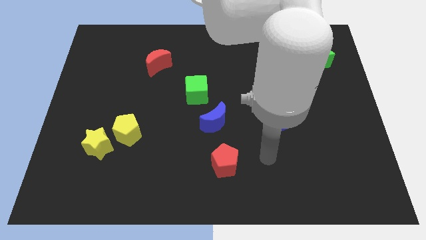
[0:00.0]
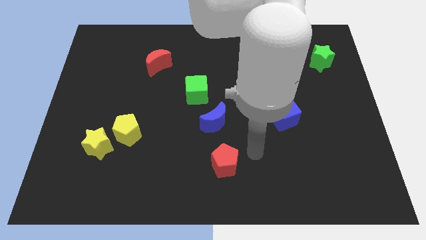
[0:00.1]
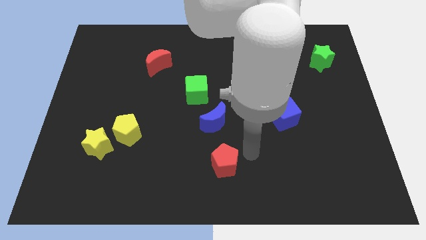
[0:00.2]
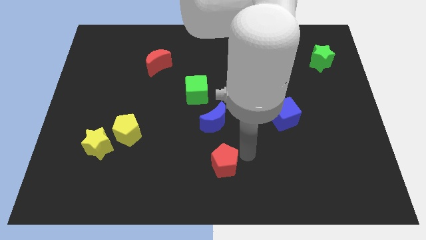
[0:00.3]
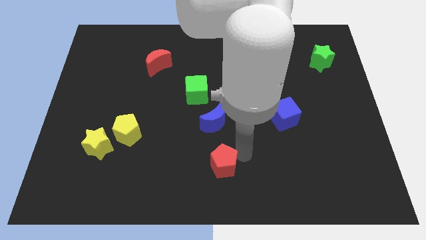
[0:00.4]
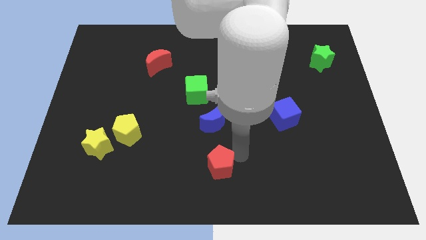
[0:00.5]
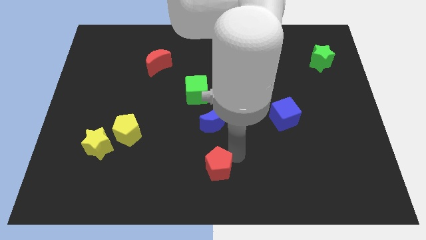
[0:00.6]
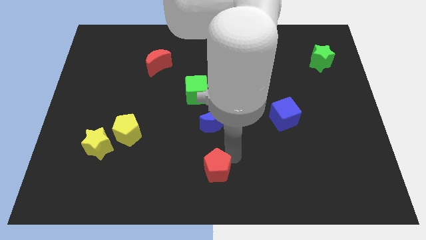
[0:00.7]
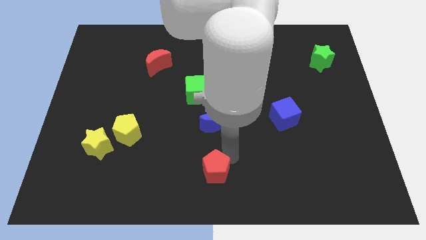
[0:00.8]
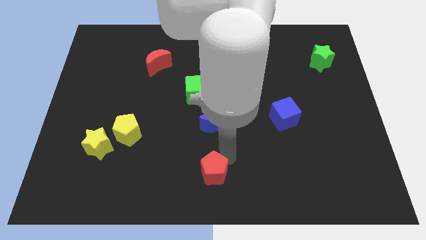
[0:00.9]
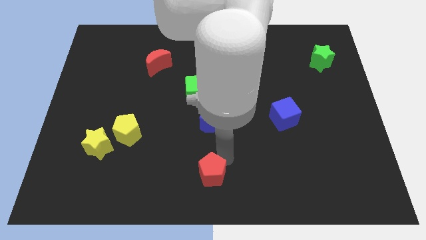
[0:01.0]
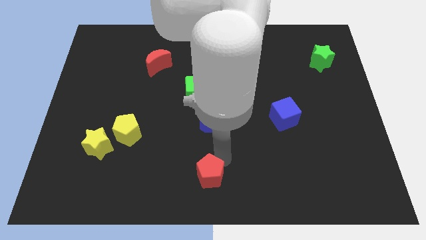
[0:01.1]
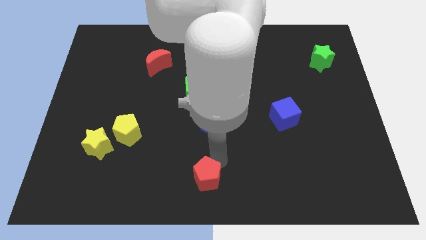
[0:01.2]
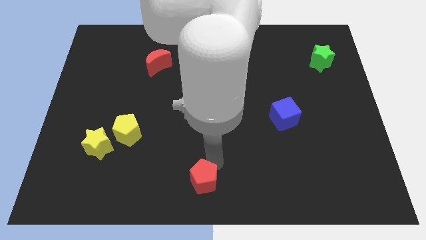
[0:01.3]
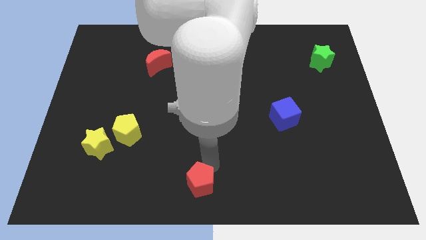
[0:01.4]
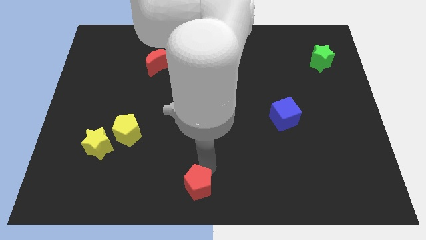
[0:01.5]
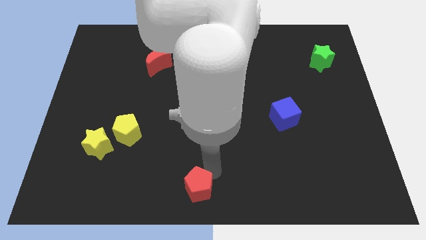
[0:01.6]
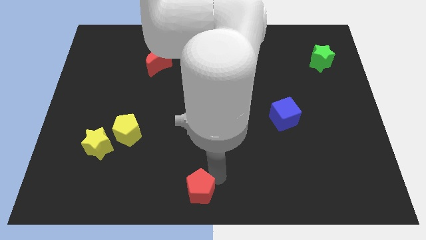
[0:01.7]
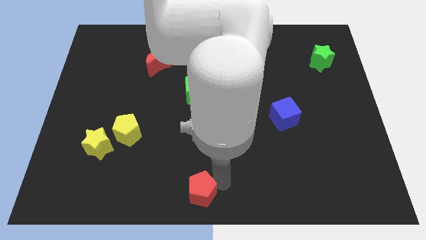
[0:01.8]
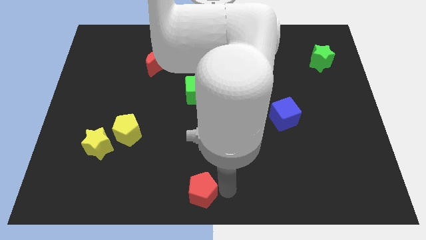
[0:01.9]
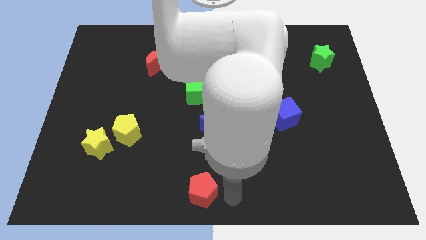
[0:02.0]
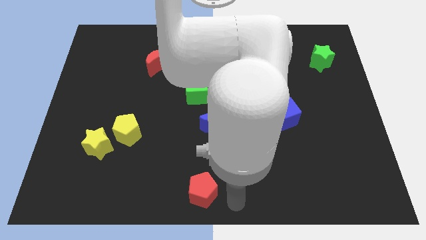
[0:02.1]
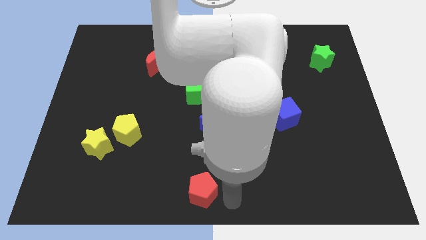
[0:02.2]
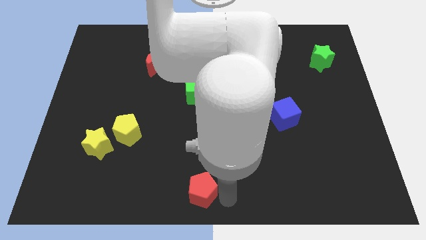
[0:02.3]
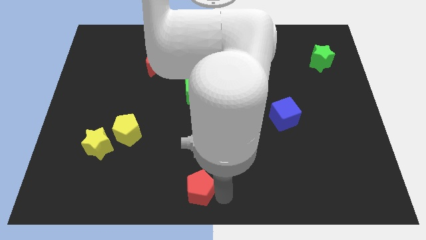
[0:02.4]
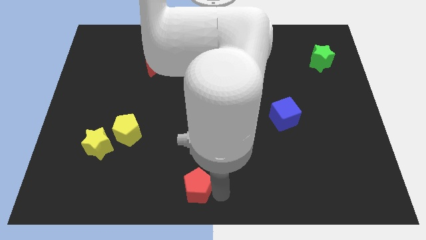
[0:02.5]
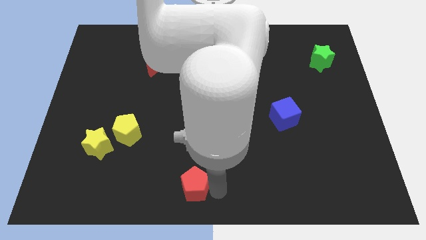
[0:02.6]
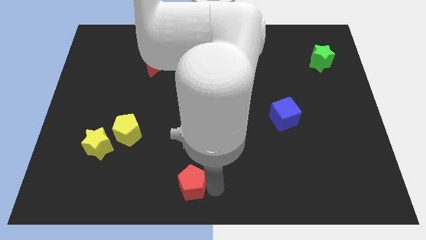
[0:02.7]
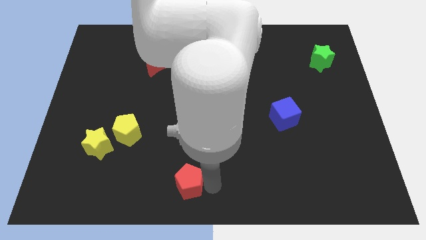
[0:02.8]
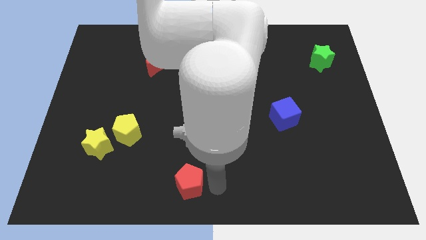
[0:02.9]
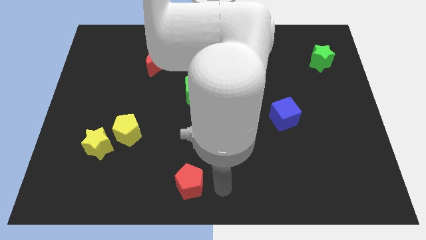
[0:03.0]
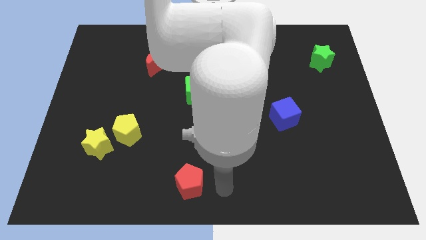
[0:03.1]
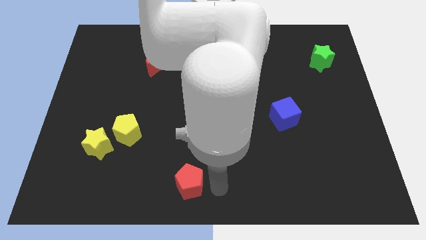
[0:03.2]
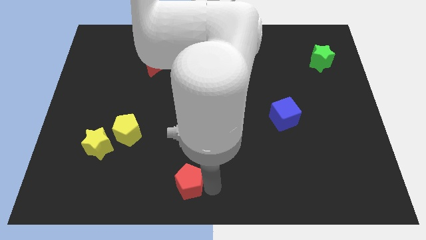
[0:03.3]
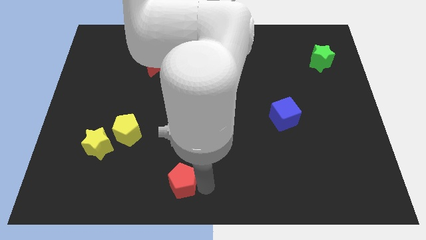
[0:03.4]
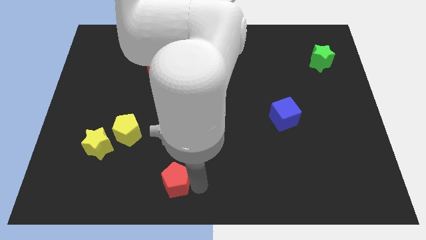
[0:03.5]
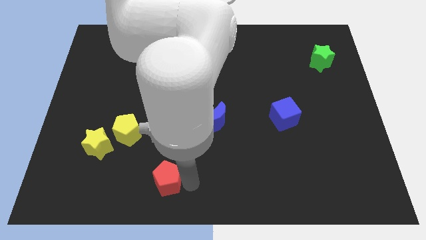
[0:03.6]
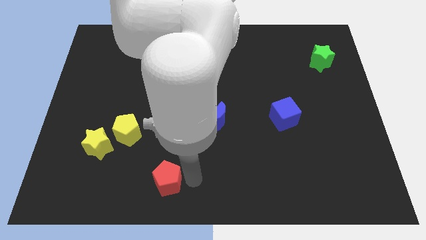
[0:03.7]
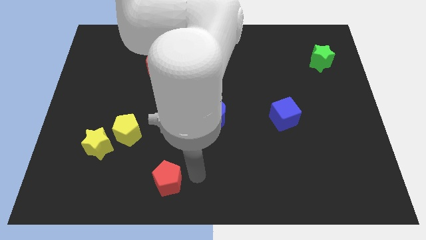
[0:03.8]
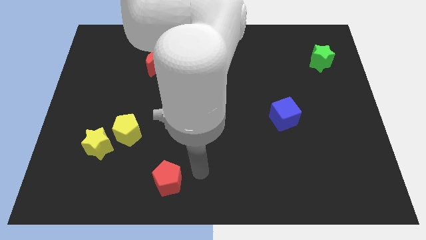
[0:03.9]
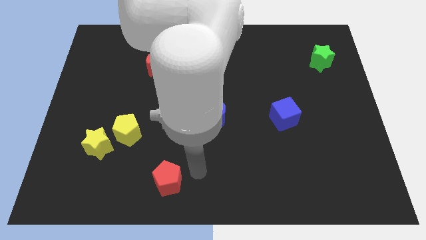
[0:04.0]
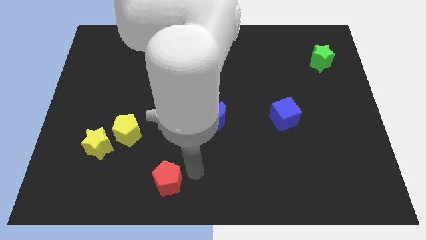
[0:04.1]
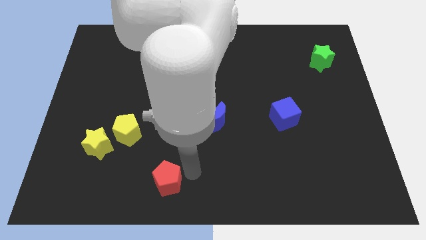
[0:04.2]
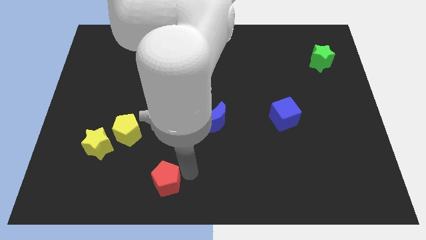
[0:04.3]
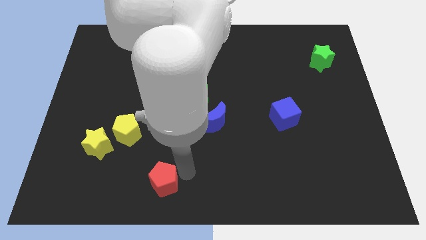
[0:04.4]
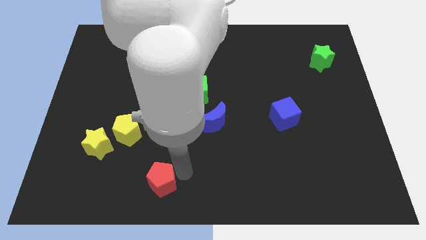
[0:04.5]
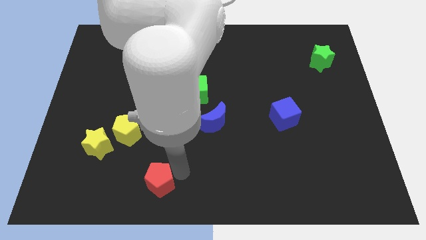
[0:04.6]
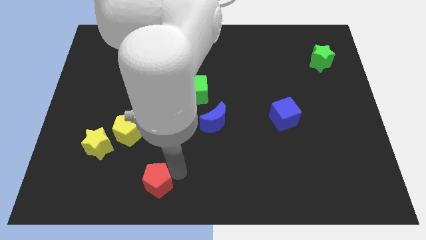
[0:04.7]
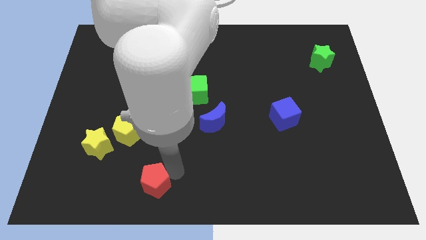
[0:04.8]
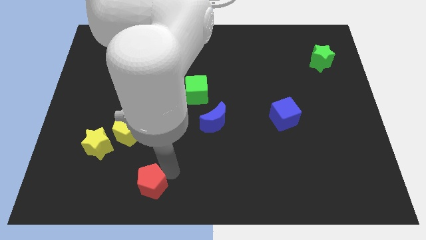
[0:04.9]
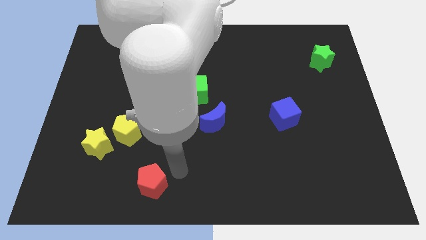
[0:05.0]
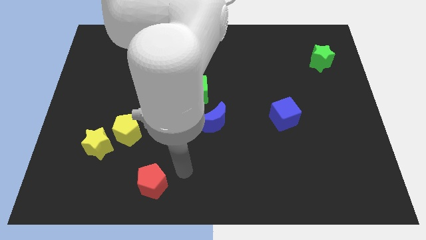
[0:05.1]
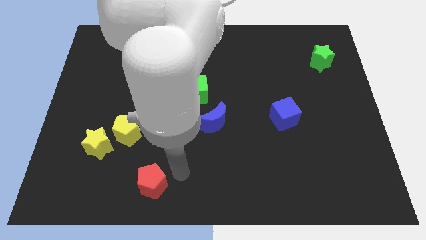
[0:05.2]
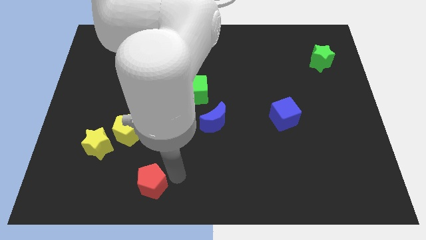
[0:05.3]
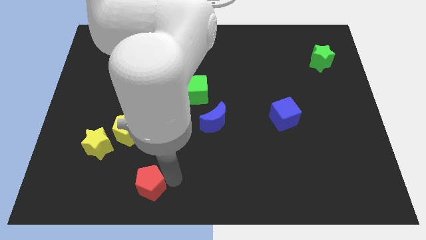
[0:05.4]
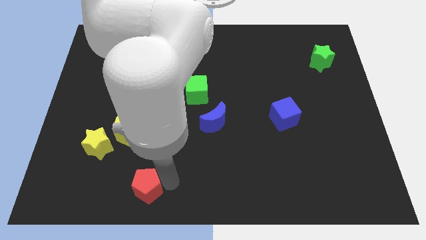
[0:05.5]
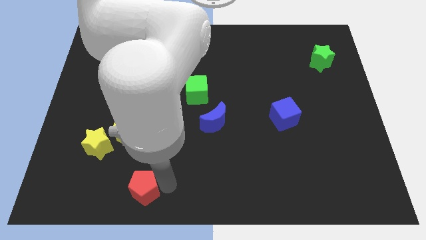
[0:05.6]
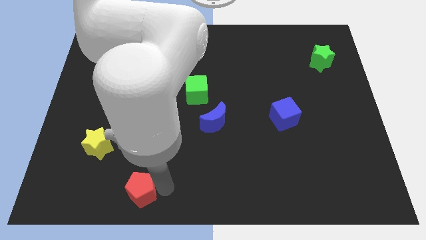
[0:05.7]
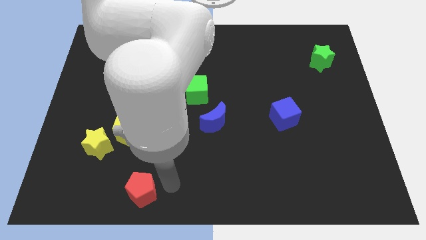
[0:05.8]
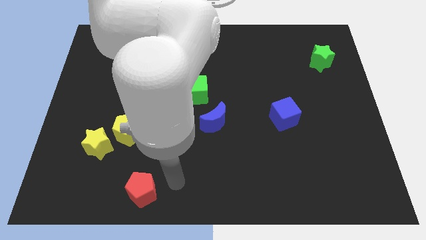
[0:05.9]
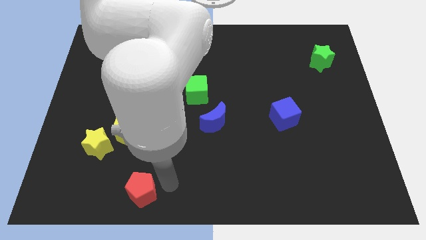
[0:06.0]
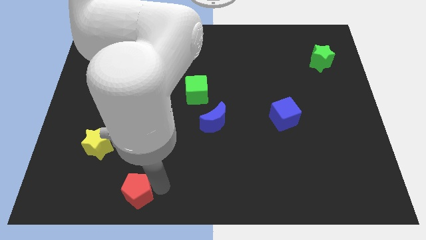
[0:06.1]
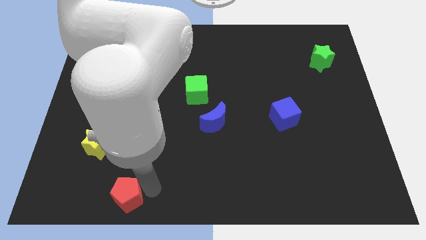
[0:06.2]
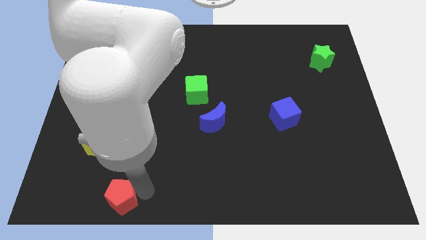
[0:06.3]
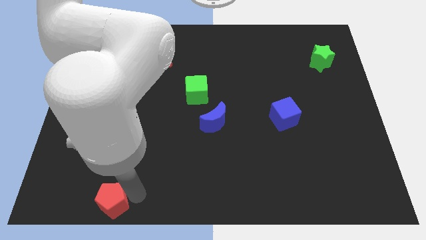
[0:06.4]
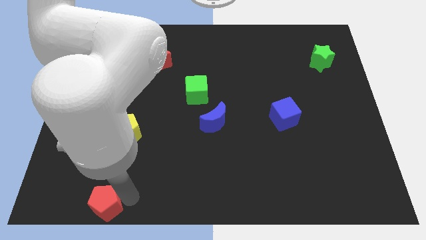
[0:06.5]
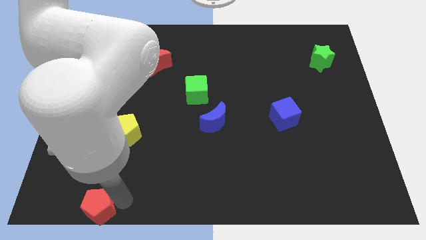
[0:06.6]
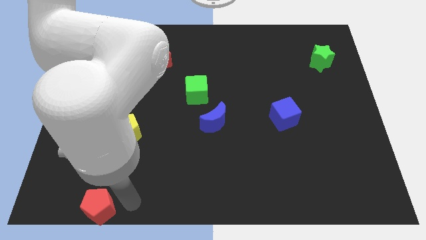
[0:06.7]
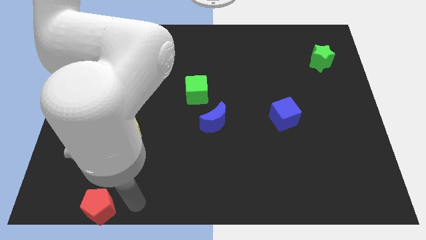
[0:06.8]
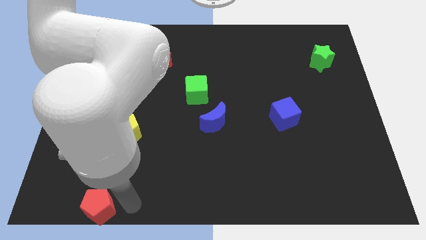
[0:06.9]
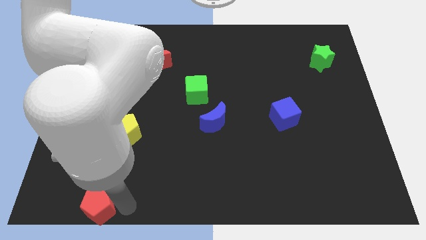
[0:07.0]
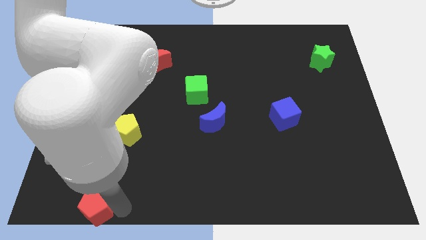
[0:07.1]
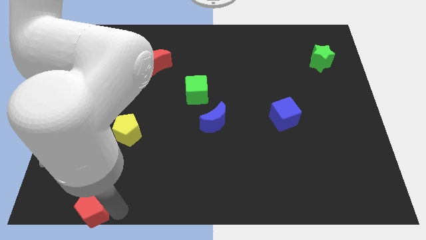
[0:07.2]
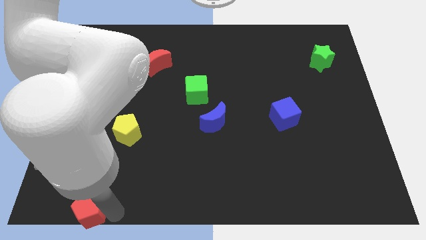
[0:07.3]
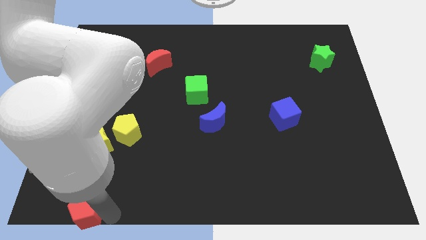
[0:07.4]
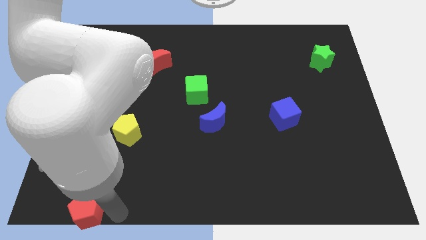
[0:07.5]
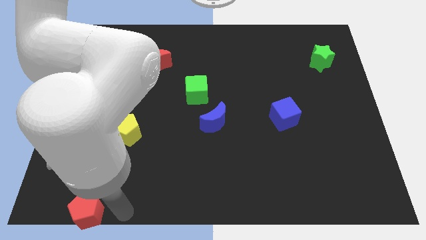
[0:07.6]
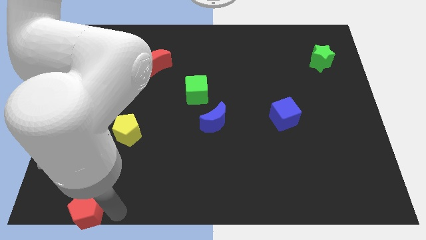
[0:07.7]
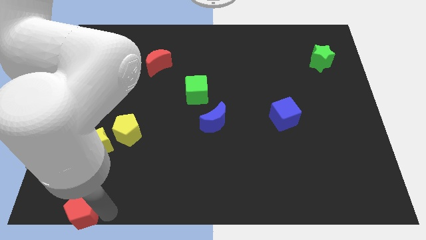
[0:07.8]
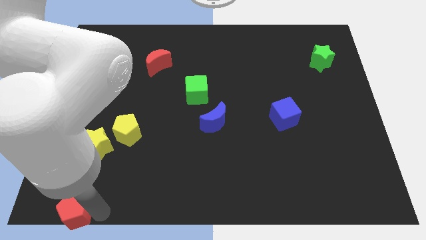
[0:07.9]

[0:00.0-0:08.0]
push the red pentagon to the lower left corner
